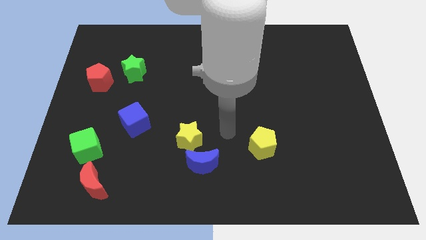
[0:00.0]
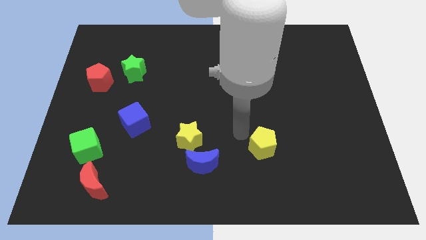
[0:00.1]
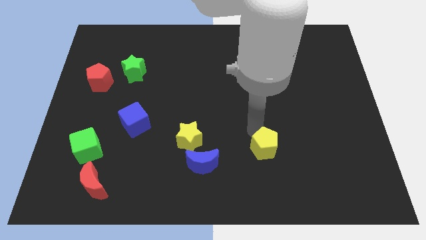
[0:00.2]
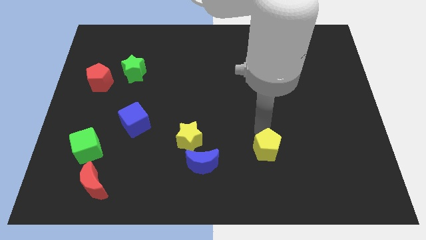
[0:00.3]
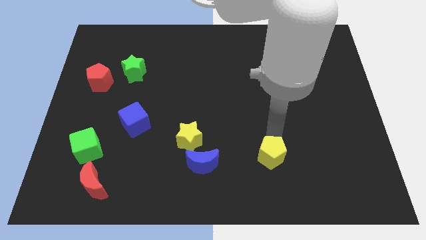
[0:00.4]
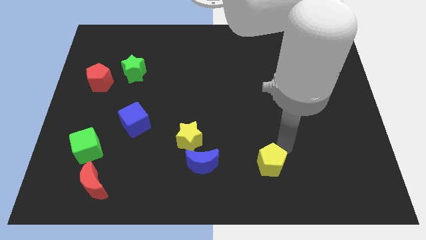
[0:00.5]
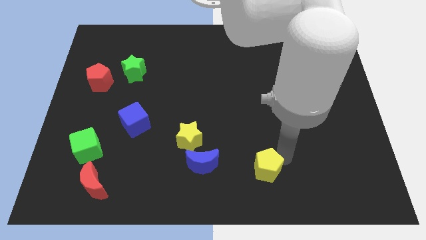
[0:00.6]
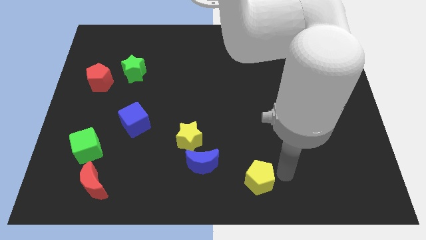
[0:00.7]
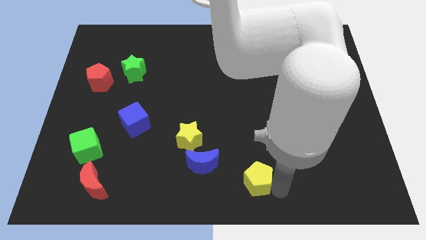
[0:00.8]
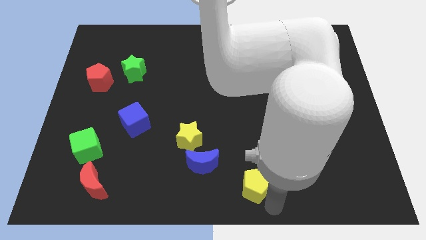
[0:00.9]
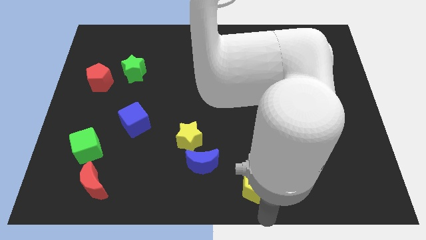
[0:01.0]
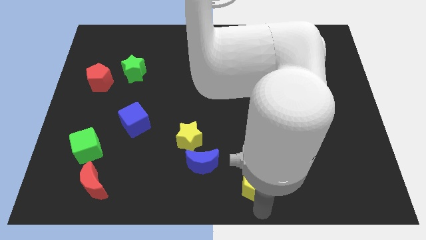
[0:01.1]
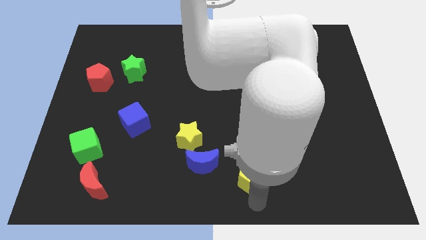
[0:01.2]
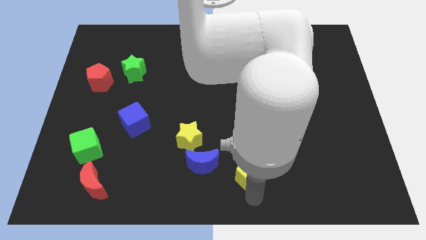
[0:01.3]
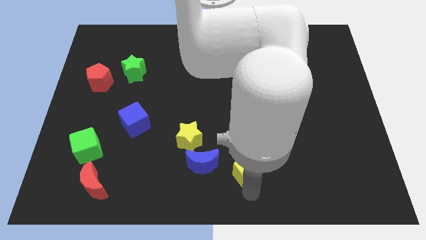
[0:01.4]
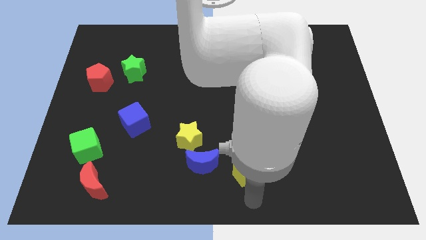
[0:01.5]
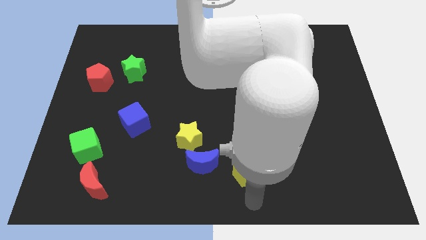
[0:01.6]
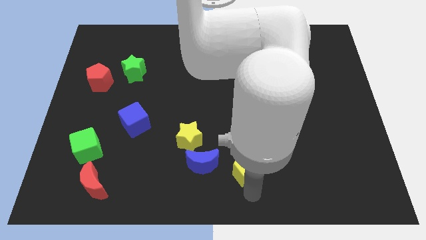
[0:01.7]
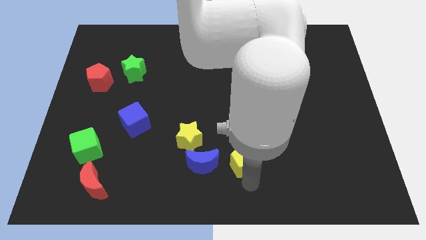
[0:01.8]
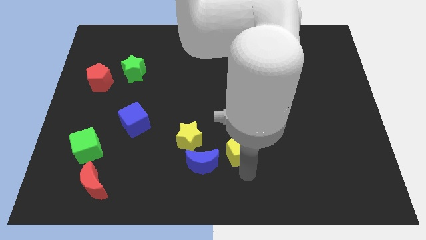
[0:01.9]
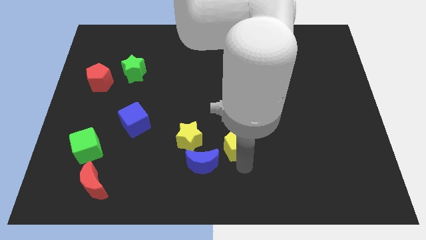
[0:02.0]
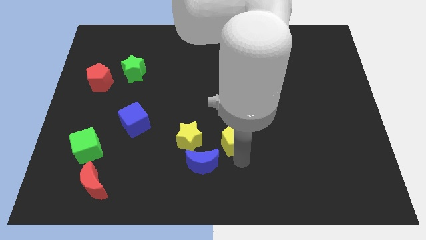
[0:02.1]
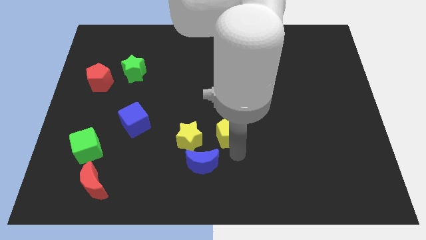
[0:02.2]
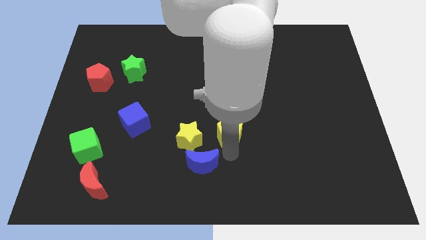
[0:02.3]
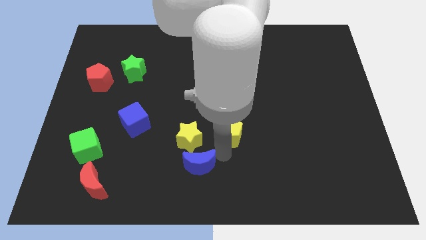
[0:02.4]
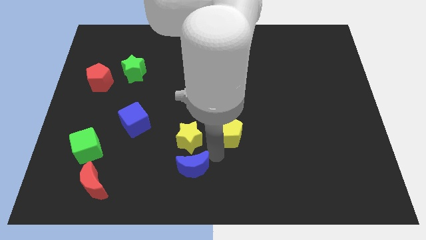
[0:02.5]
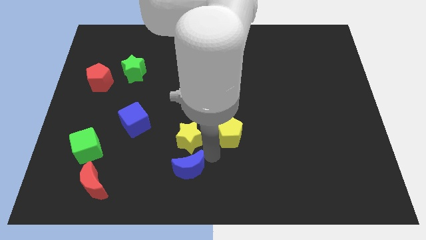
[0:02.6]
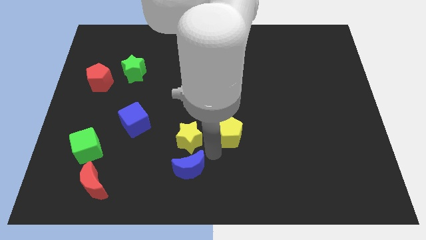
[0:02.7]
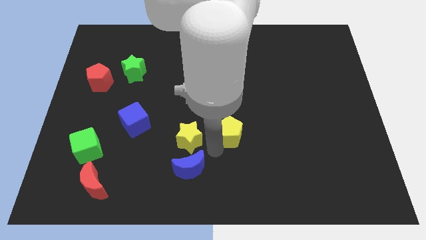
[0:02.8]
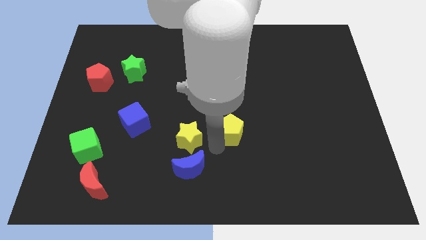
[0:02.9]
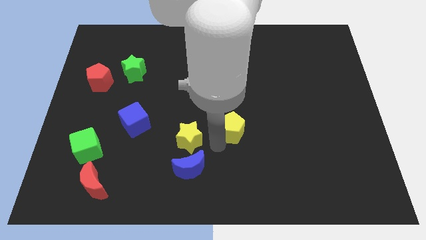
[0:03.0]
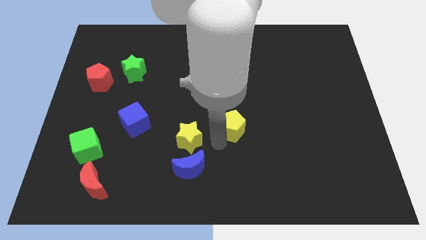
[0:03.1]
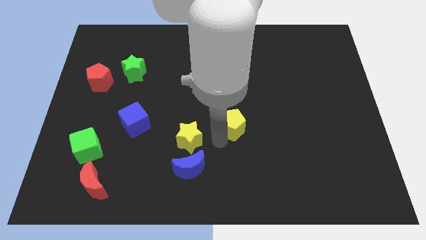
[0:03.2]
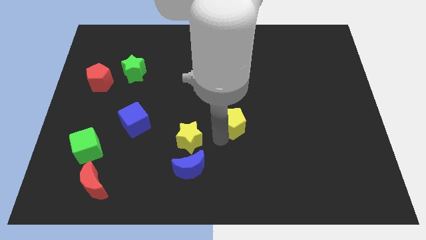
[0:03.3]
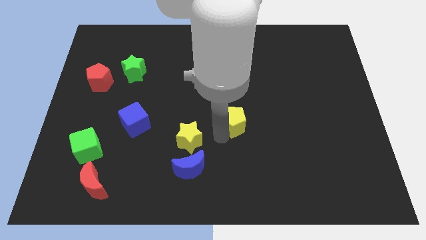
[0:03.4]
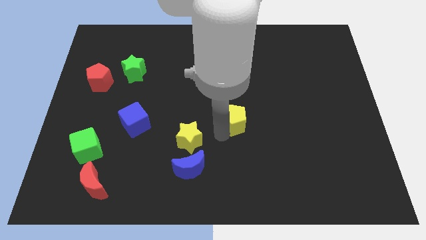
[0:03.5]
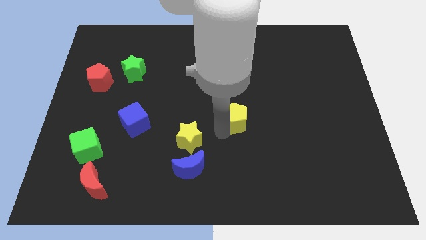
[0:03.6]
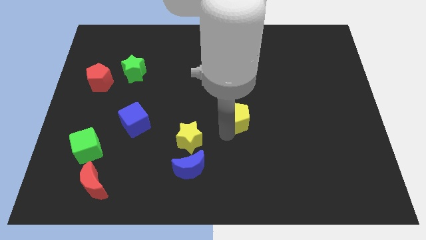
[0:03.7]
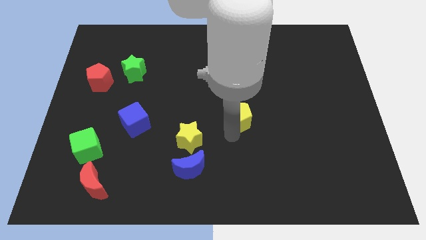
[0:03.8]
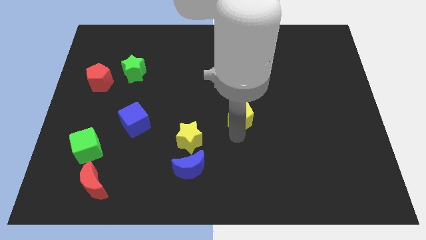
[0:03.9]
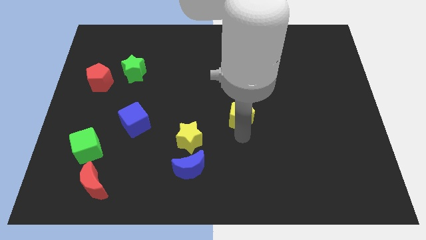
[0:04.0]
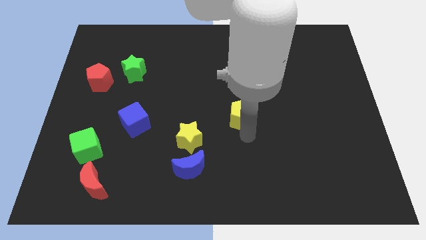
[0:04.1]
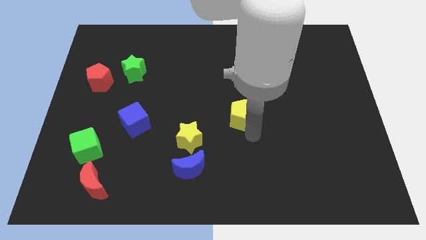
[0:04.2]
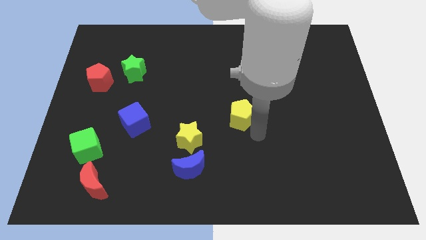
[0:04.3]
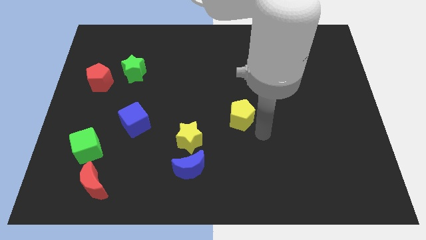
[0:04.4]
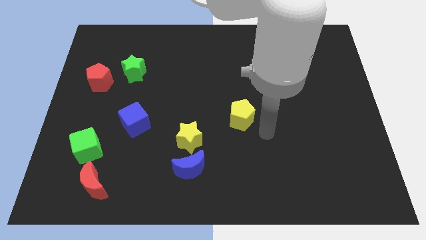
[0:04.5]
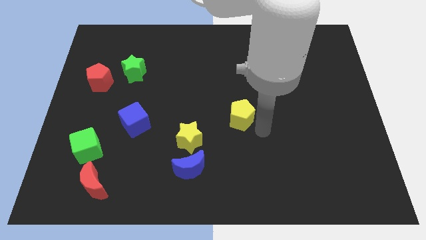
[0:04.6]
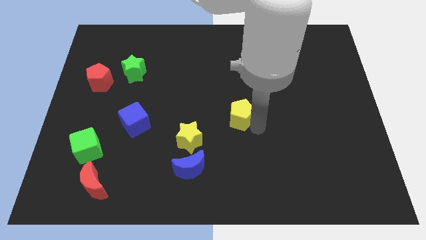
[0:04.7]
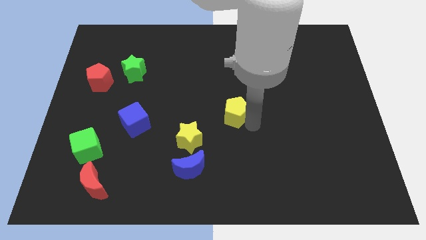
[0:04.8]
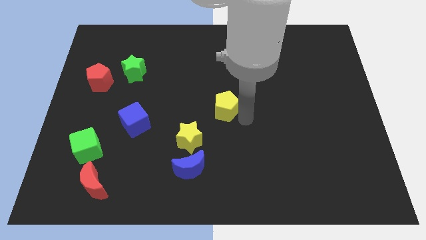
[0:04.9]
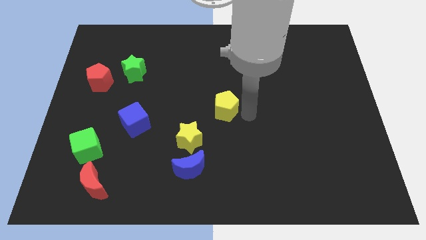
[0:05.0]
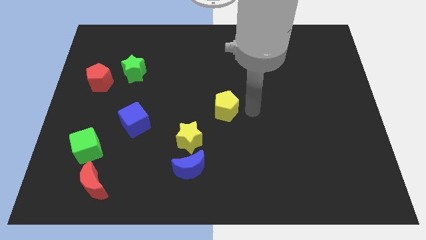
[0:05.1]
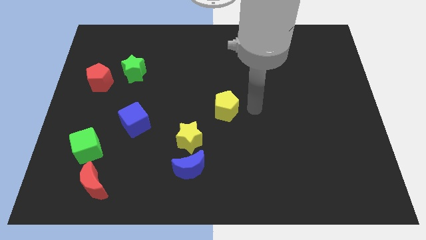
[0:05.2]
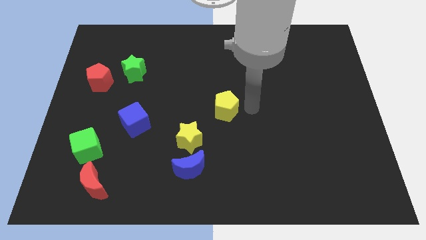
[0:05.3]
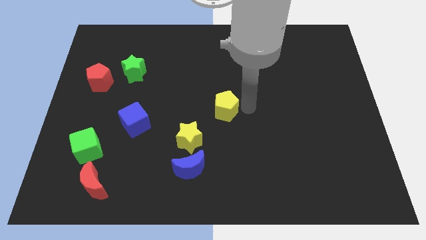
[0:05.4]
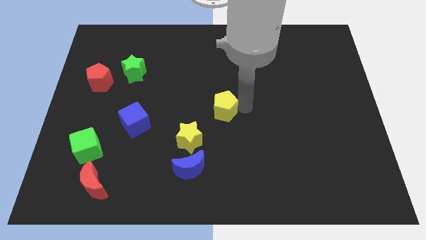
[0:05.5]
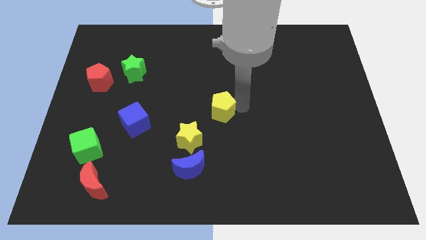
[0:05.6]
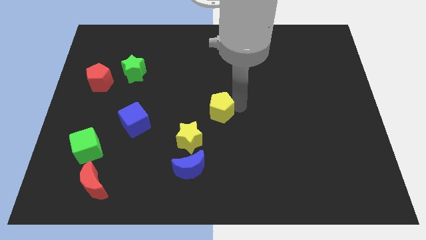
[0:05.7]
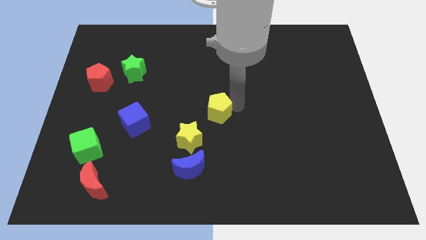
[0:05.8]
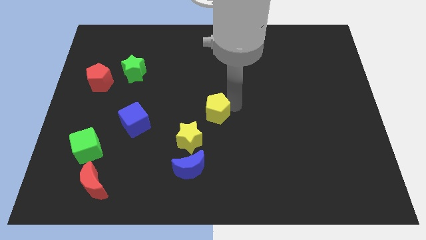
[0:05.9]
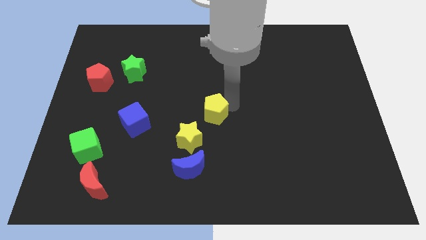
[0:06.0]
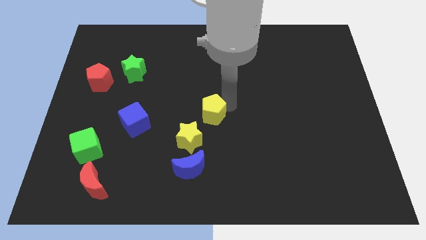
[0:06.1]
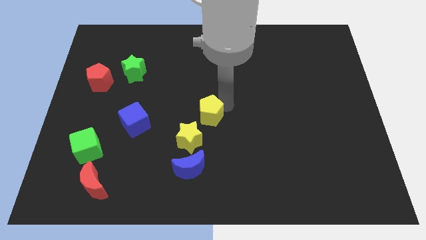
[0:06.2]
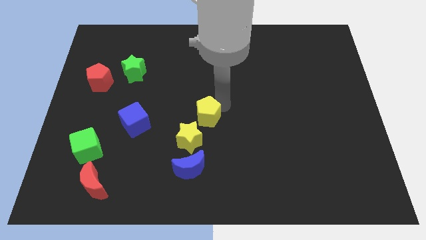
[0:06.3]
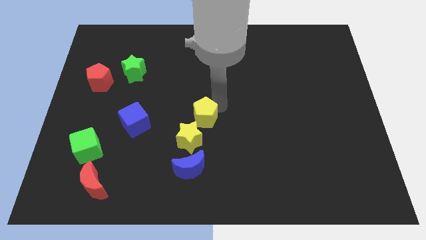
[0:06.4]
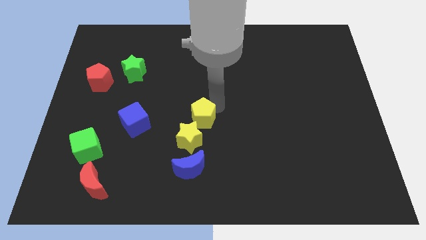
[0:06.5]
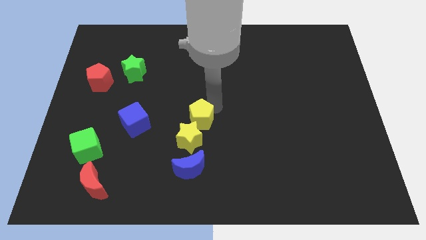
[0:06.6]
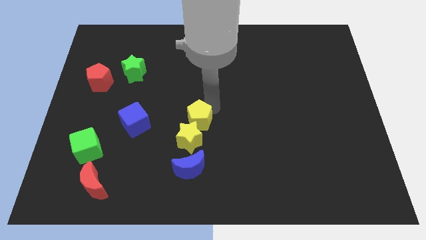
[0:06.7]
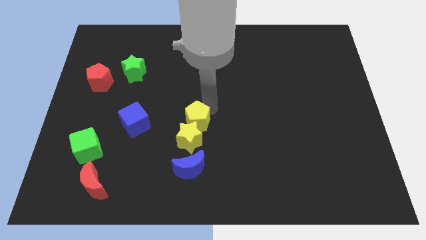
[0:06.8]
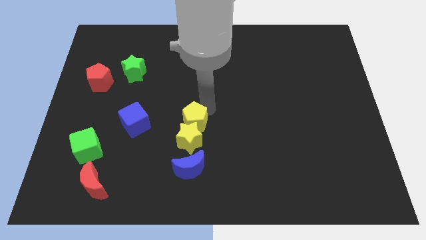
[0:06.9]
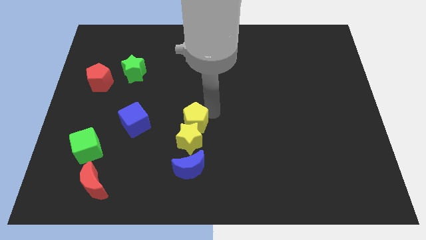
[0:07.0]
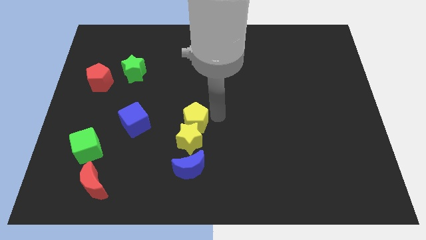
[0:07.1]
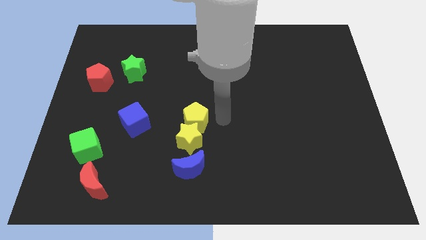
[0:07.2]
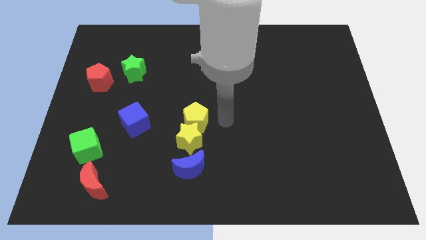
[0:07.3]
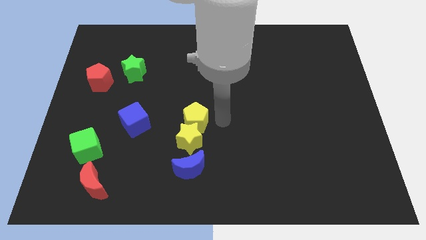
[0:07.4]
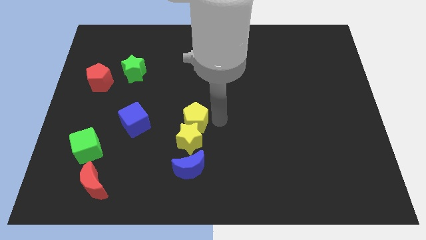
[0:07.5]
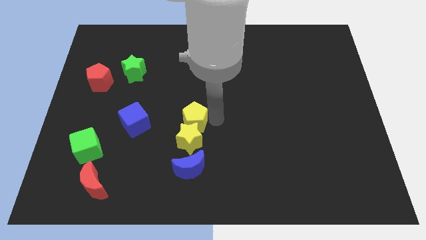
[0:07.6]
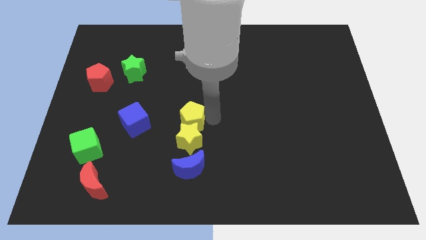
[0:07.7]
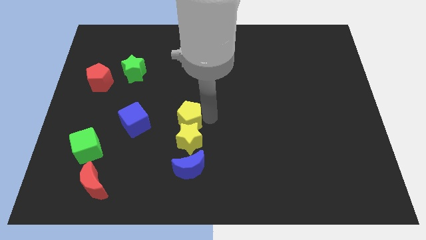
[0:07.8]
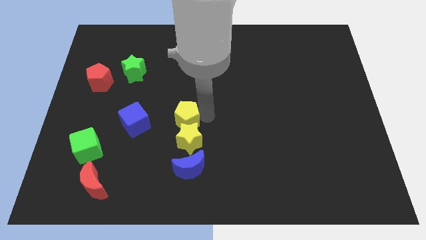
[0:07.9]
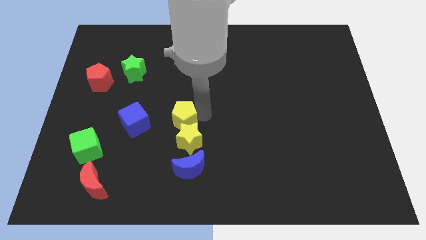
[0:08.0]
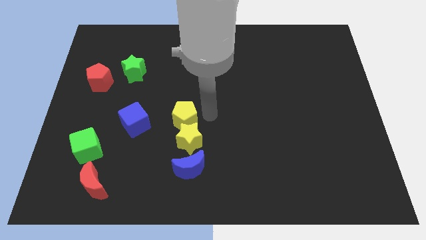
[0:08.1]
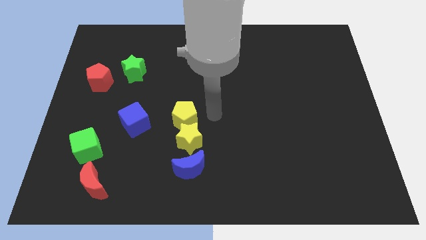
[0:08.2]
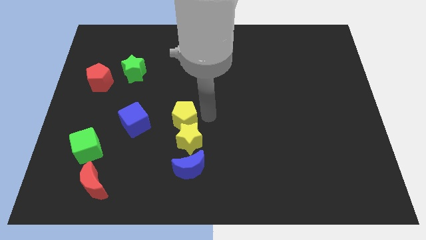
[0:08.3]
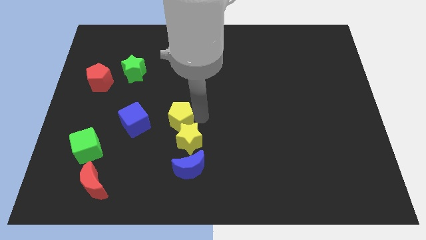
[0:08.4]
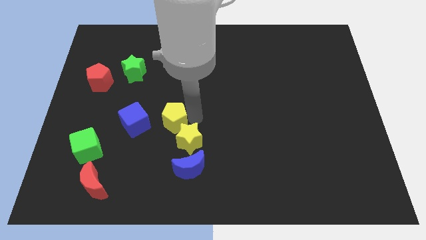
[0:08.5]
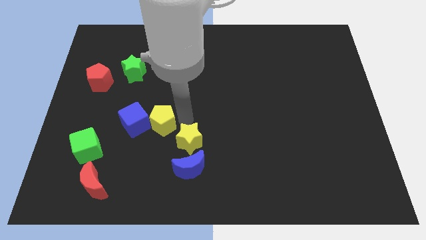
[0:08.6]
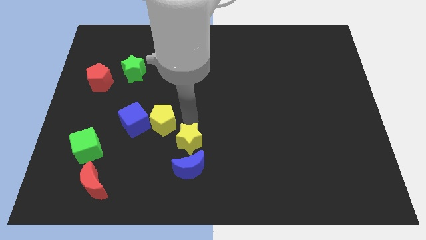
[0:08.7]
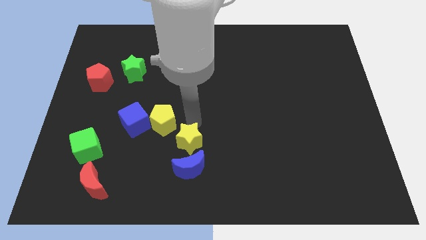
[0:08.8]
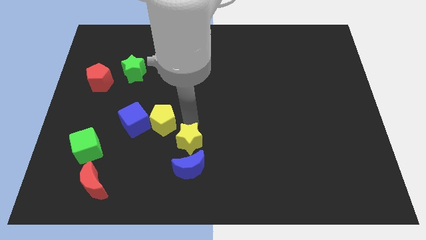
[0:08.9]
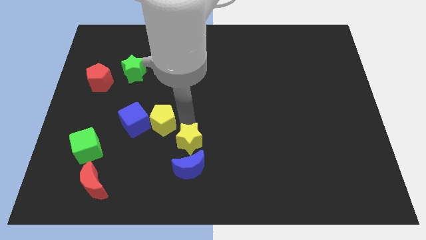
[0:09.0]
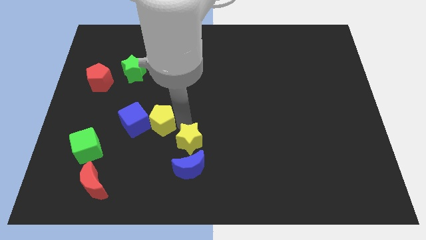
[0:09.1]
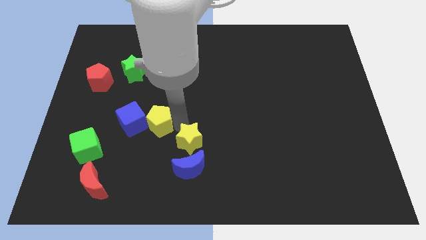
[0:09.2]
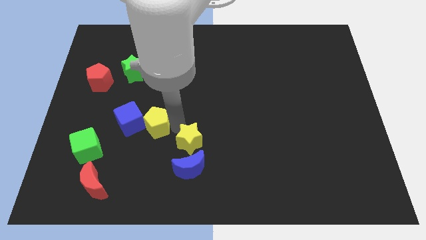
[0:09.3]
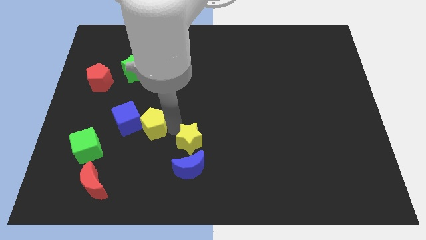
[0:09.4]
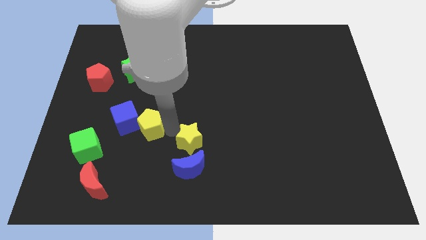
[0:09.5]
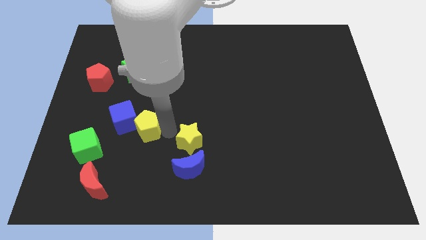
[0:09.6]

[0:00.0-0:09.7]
put the yellow pentagon close to the blue cube
